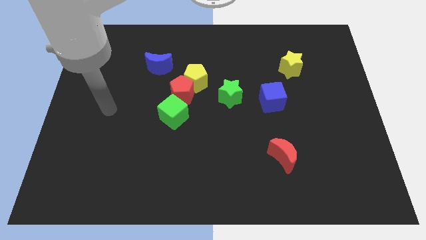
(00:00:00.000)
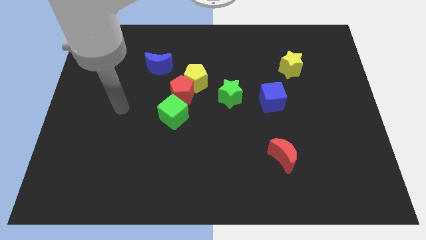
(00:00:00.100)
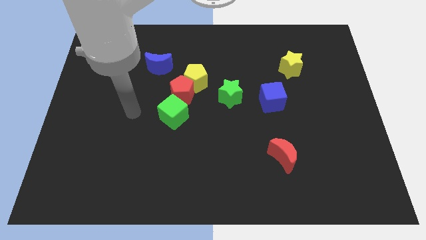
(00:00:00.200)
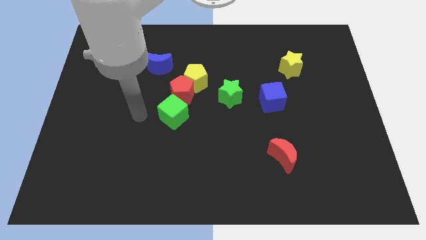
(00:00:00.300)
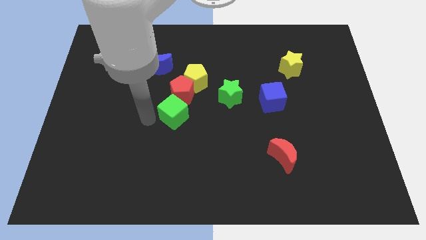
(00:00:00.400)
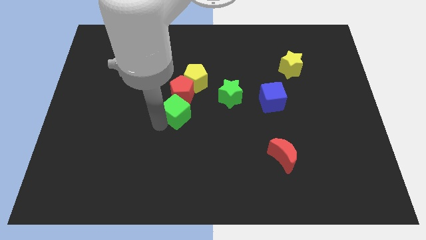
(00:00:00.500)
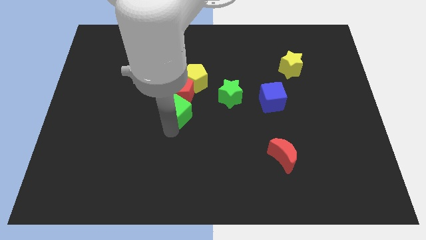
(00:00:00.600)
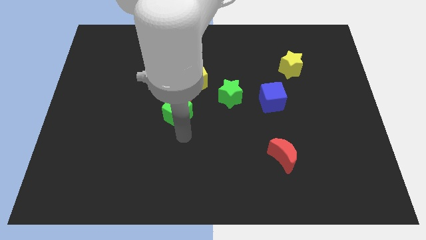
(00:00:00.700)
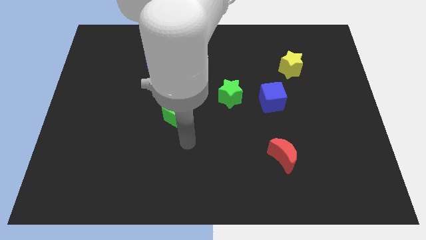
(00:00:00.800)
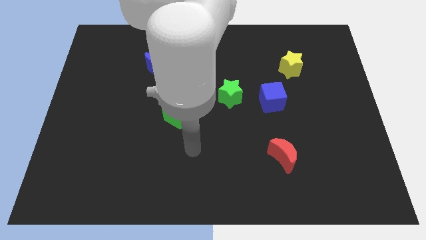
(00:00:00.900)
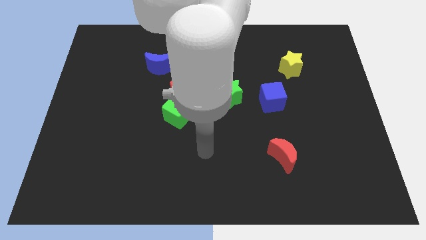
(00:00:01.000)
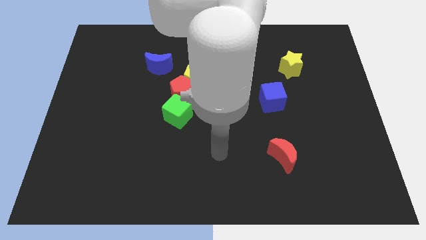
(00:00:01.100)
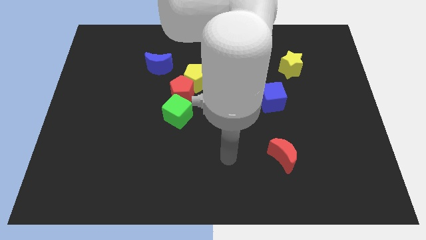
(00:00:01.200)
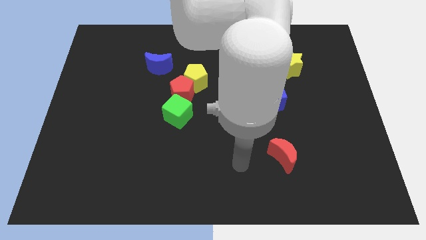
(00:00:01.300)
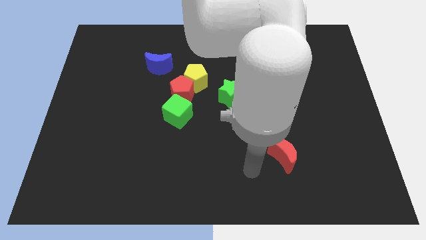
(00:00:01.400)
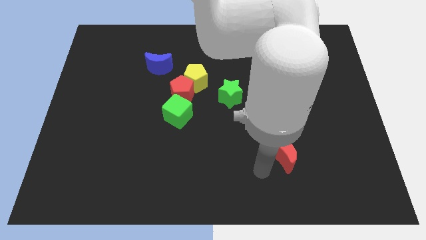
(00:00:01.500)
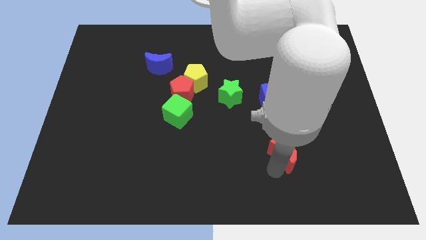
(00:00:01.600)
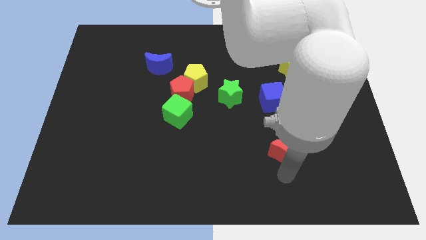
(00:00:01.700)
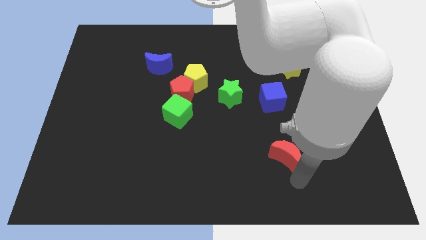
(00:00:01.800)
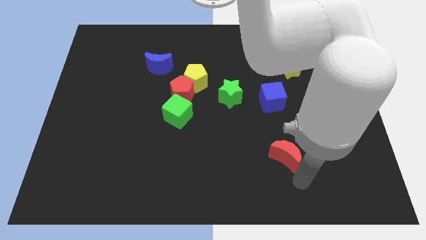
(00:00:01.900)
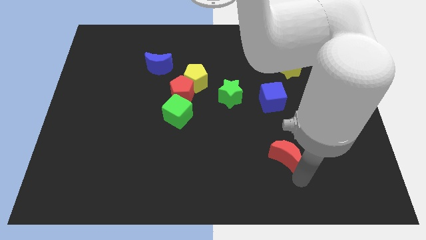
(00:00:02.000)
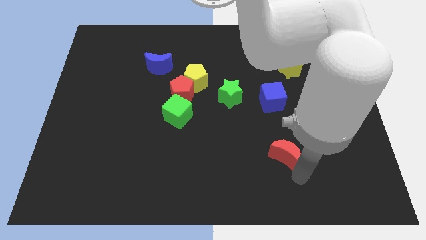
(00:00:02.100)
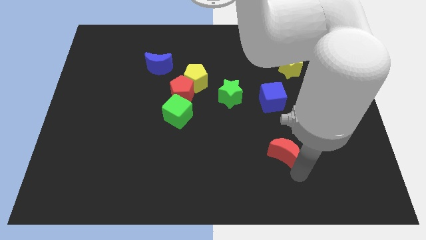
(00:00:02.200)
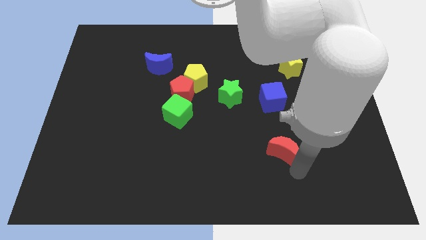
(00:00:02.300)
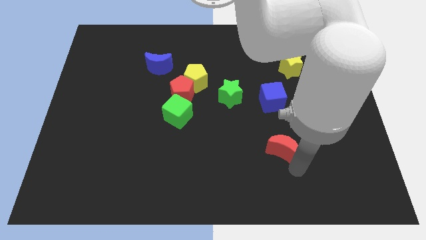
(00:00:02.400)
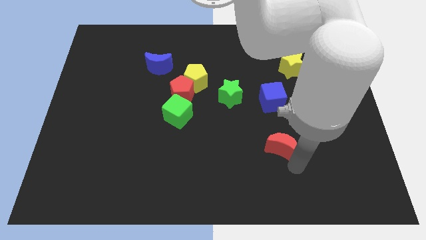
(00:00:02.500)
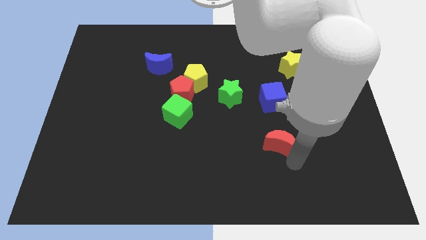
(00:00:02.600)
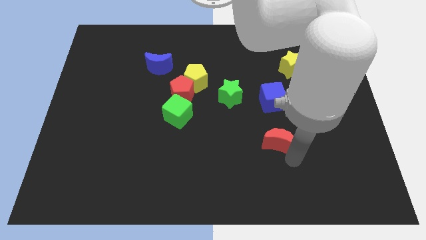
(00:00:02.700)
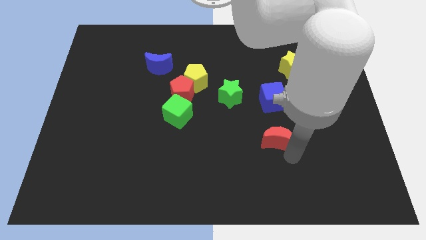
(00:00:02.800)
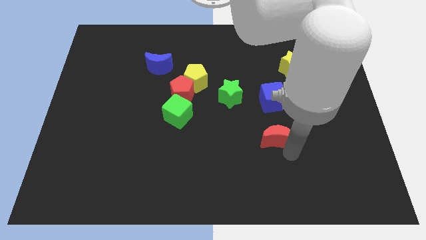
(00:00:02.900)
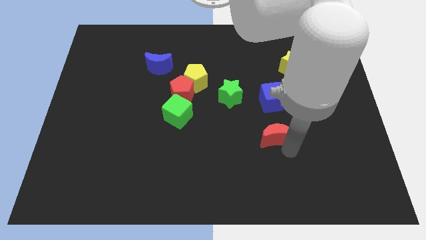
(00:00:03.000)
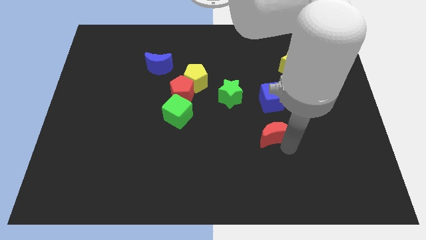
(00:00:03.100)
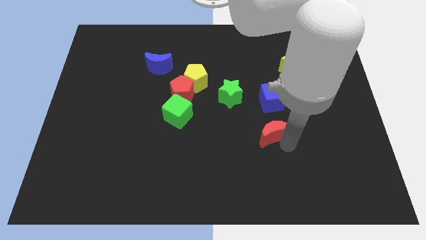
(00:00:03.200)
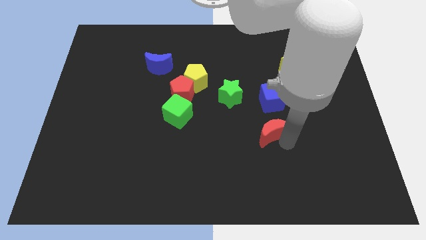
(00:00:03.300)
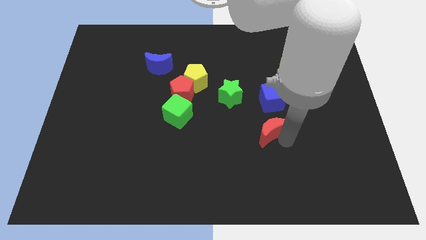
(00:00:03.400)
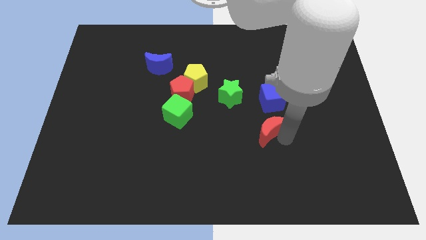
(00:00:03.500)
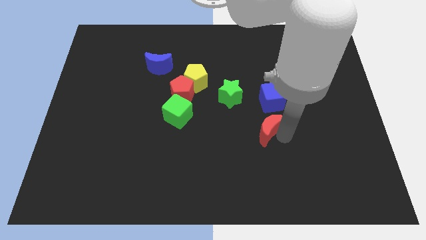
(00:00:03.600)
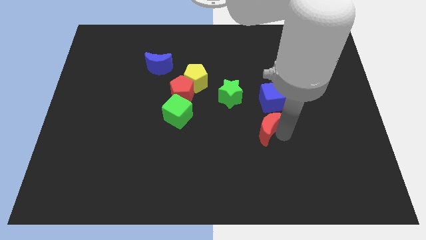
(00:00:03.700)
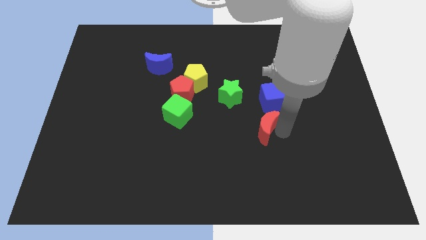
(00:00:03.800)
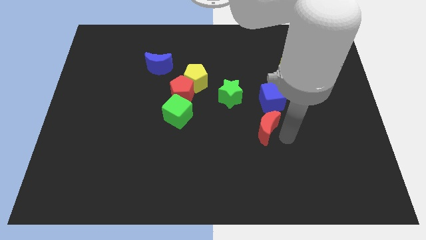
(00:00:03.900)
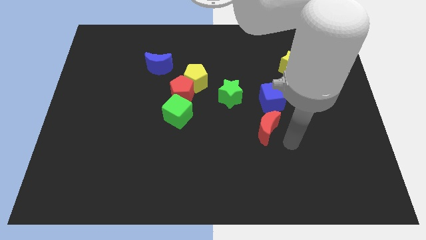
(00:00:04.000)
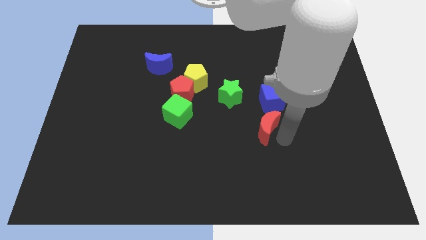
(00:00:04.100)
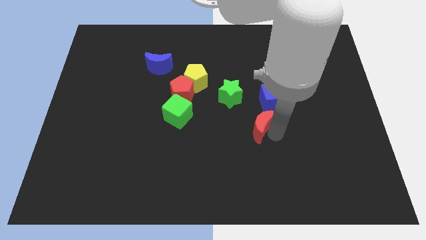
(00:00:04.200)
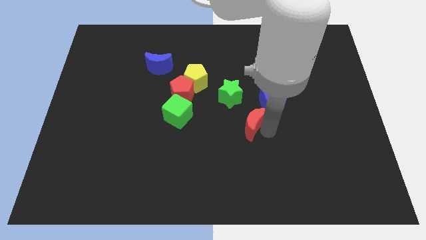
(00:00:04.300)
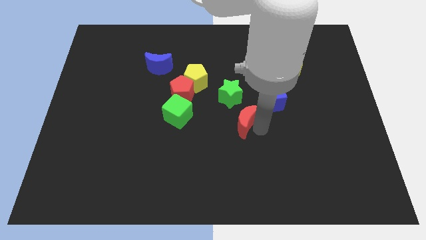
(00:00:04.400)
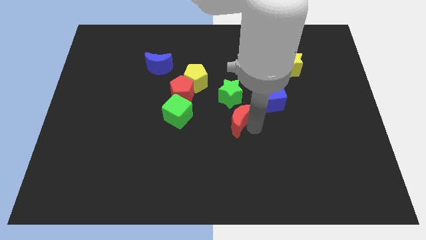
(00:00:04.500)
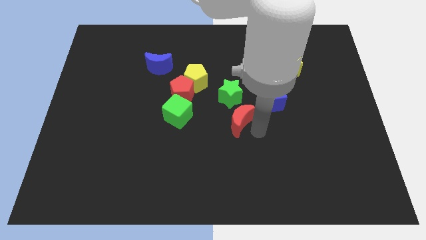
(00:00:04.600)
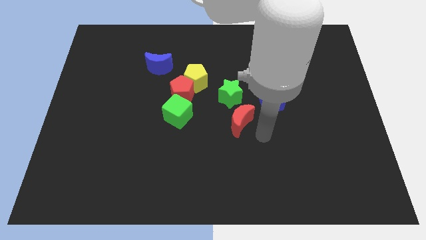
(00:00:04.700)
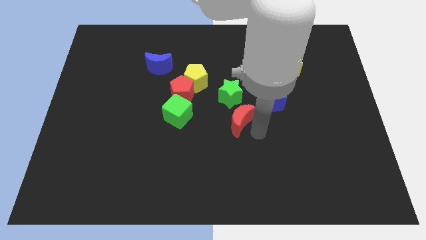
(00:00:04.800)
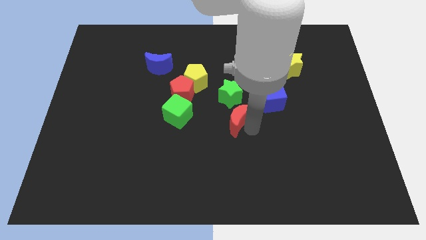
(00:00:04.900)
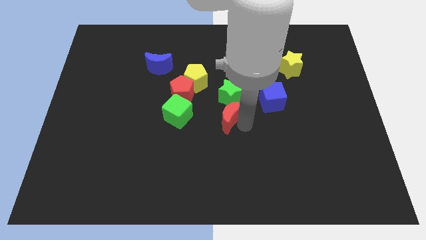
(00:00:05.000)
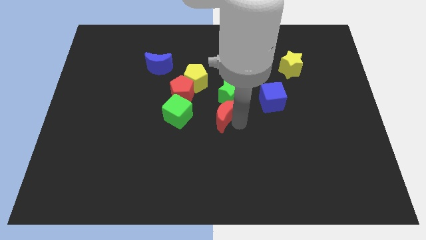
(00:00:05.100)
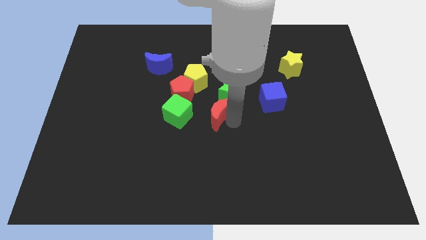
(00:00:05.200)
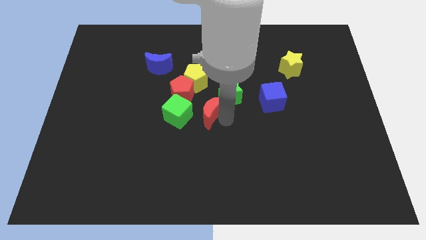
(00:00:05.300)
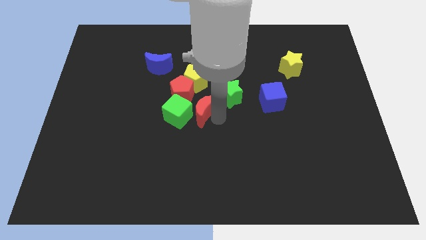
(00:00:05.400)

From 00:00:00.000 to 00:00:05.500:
slide the red moon to the top right of the green cube

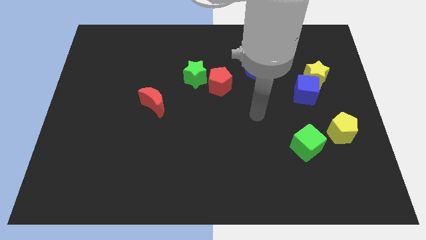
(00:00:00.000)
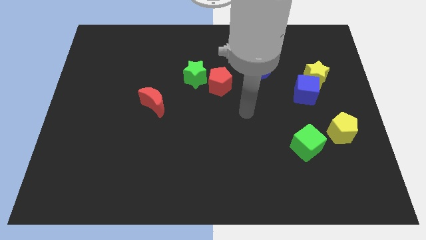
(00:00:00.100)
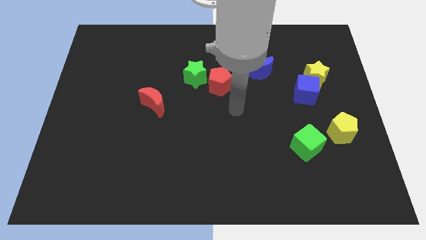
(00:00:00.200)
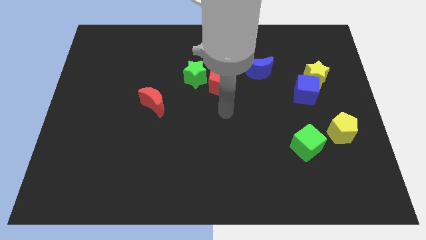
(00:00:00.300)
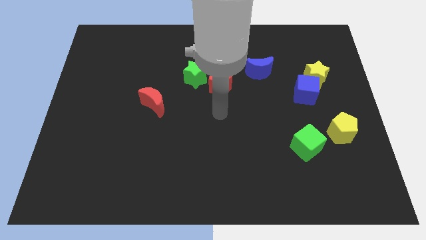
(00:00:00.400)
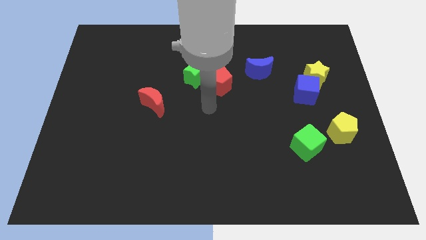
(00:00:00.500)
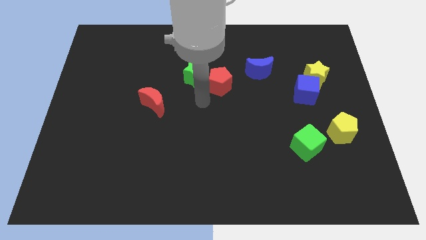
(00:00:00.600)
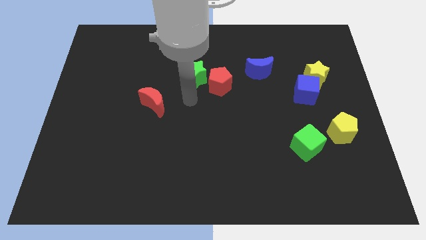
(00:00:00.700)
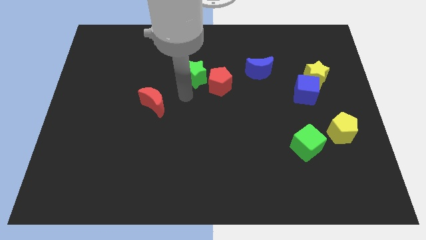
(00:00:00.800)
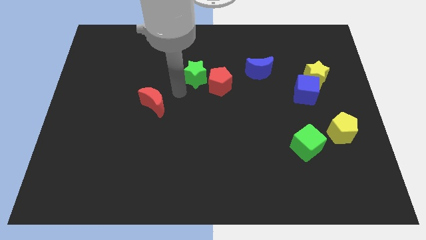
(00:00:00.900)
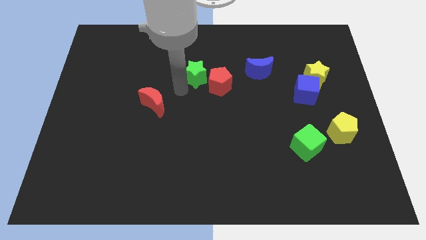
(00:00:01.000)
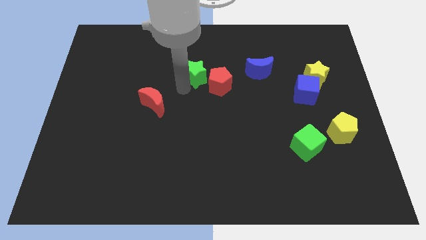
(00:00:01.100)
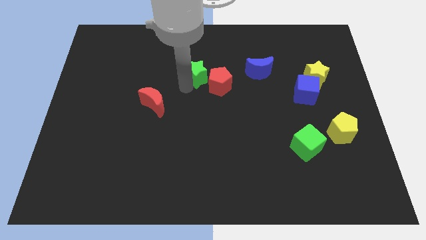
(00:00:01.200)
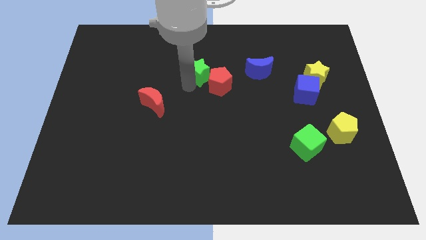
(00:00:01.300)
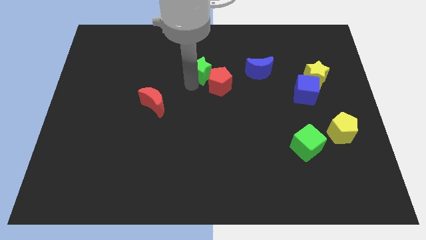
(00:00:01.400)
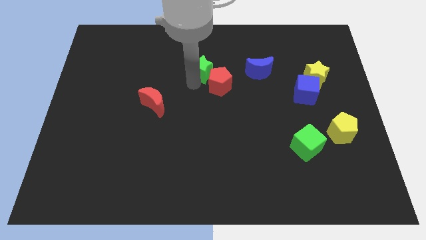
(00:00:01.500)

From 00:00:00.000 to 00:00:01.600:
put the green star to the top of the red pentagon

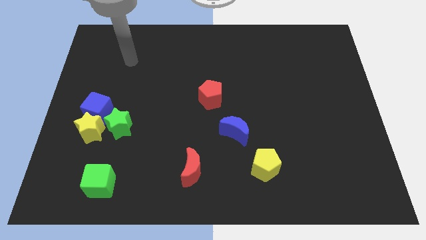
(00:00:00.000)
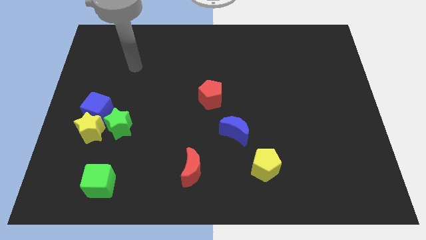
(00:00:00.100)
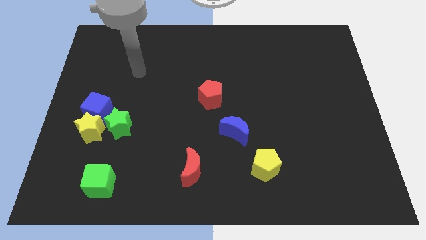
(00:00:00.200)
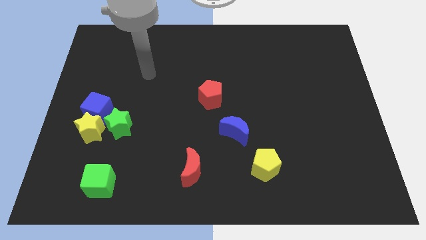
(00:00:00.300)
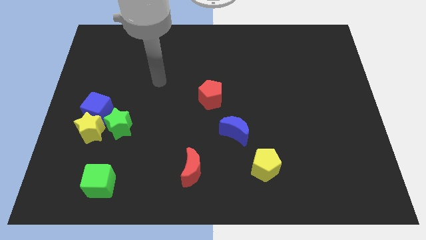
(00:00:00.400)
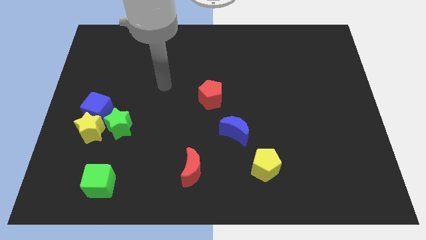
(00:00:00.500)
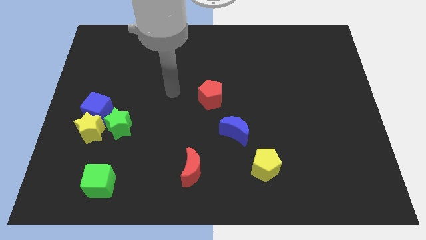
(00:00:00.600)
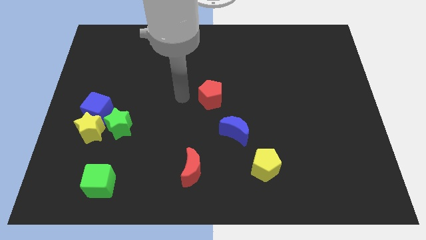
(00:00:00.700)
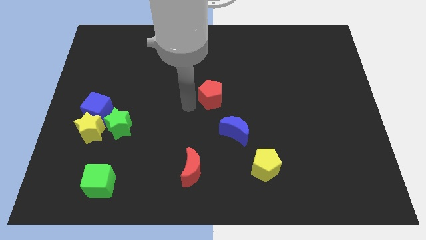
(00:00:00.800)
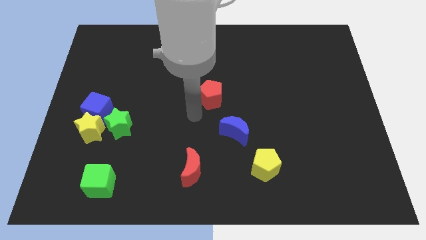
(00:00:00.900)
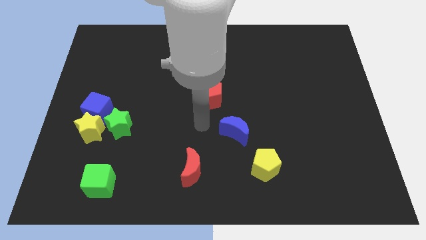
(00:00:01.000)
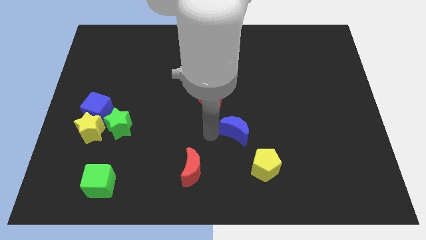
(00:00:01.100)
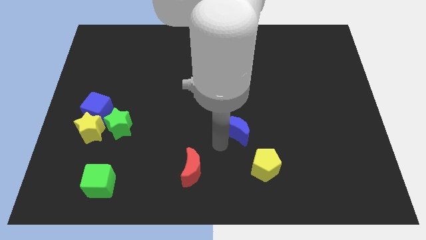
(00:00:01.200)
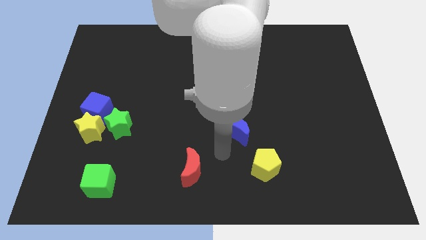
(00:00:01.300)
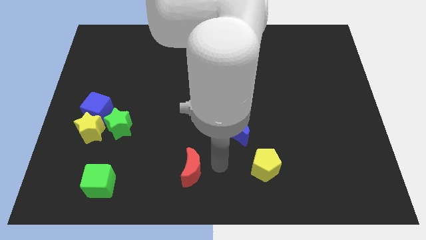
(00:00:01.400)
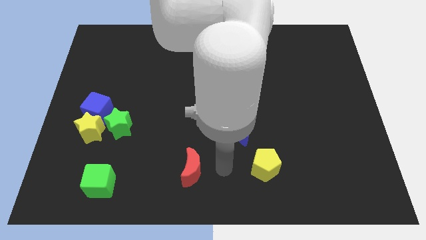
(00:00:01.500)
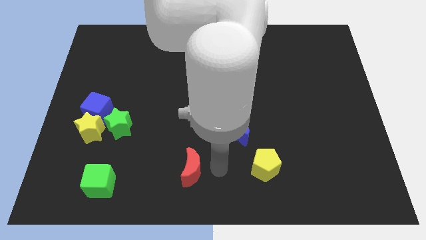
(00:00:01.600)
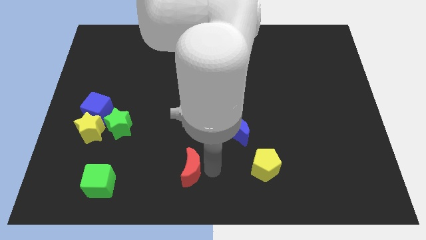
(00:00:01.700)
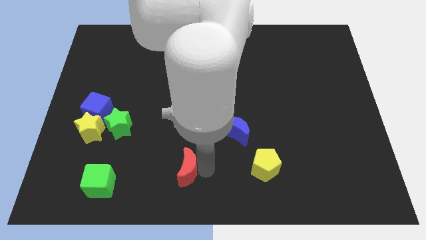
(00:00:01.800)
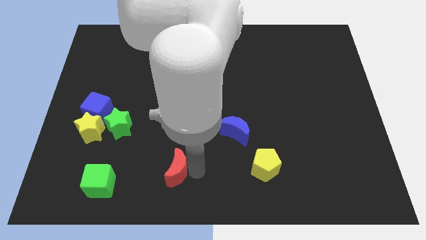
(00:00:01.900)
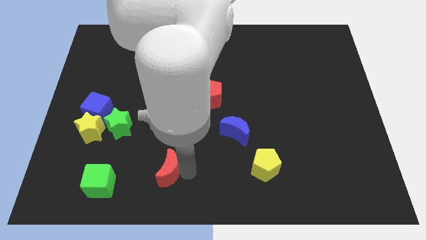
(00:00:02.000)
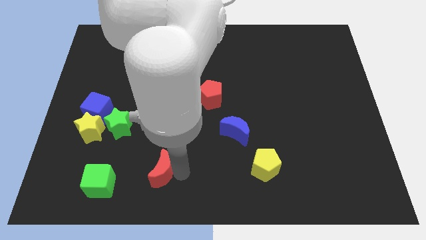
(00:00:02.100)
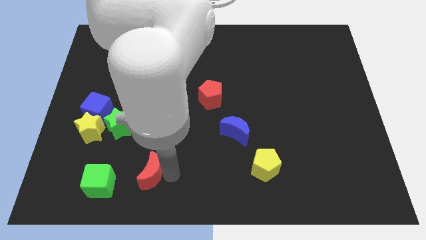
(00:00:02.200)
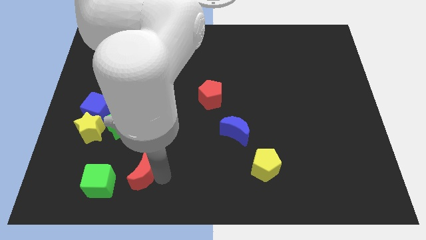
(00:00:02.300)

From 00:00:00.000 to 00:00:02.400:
move the red moon to the top right of the green cube
